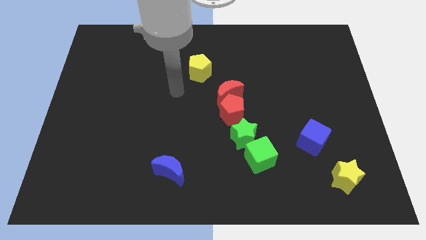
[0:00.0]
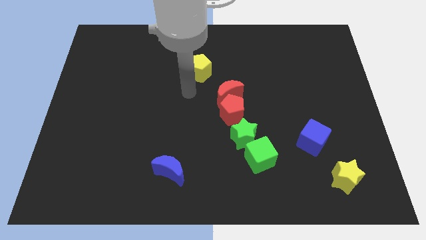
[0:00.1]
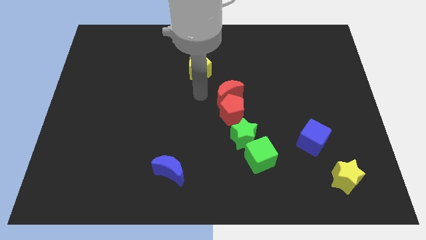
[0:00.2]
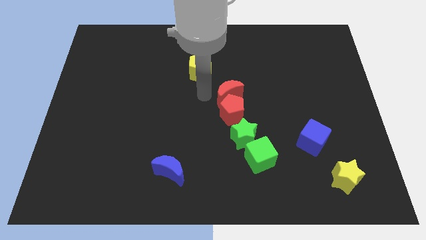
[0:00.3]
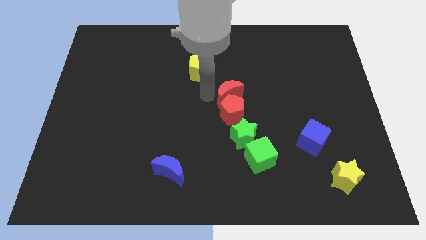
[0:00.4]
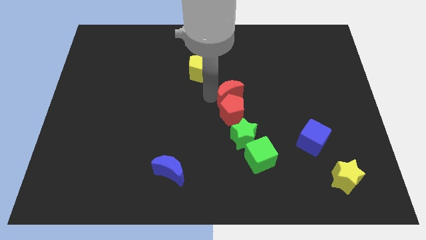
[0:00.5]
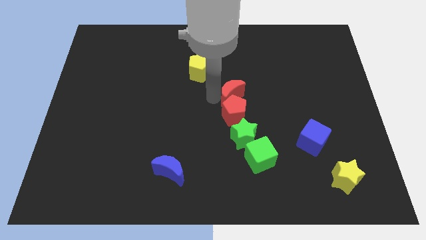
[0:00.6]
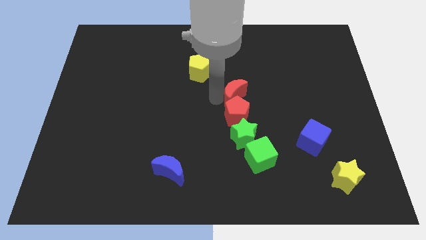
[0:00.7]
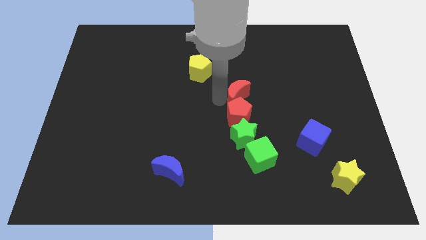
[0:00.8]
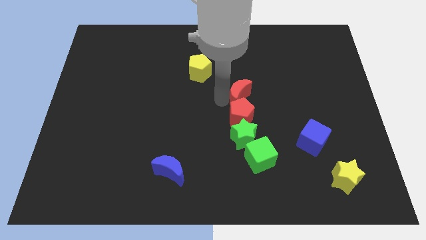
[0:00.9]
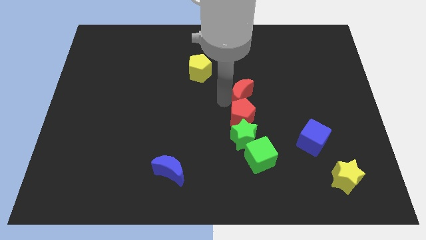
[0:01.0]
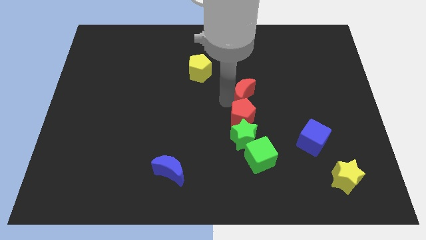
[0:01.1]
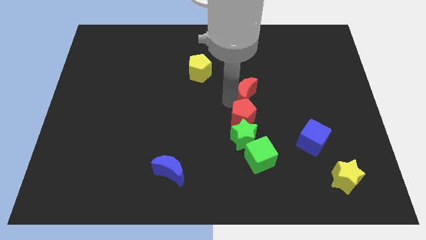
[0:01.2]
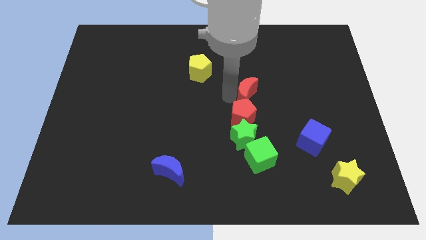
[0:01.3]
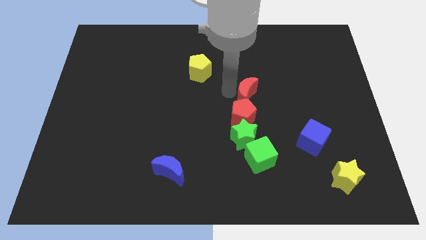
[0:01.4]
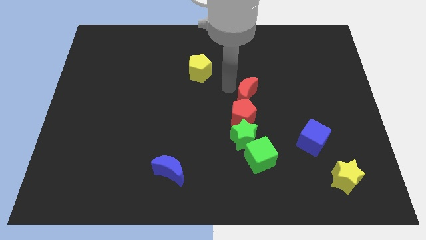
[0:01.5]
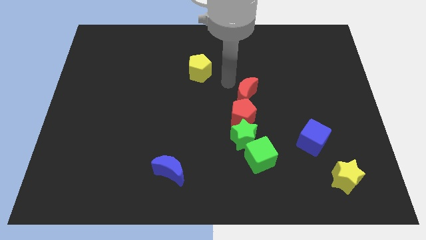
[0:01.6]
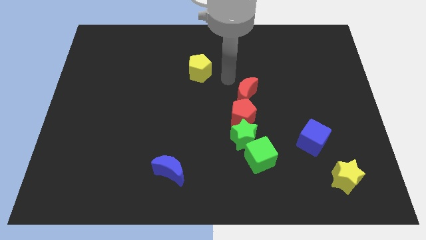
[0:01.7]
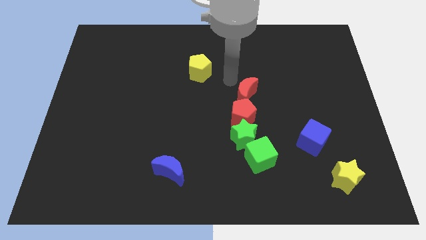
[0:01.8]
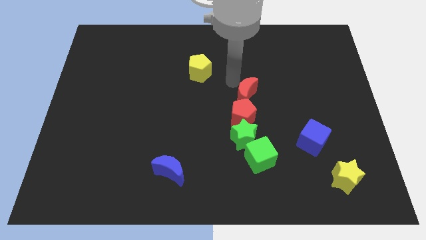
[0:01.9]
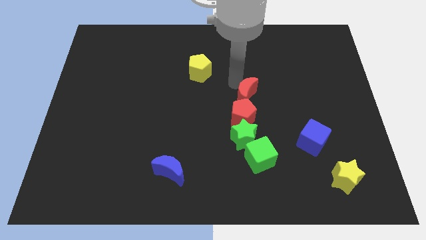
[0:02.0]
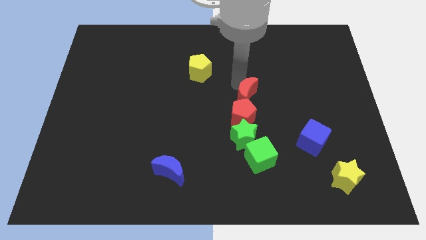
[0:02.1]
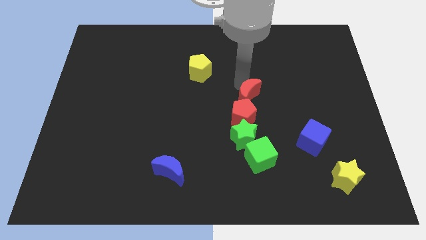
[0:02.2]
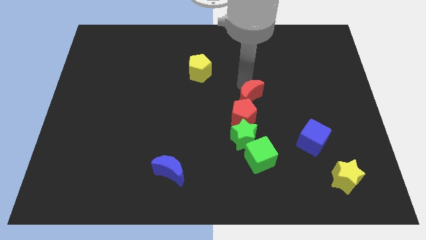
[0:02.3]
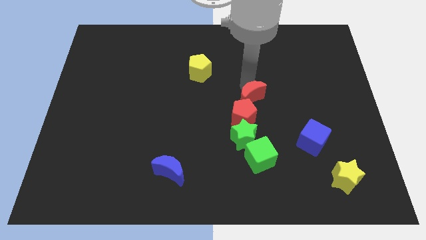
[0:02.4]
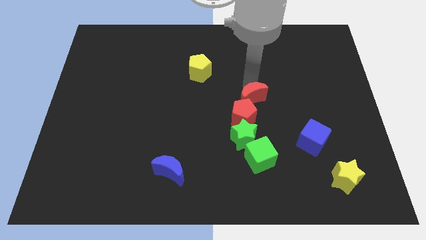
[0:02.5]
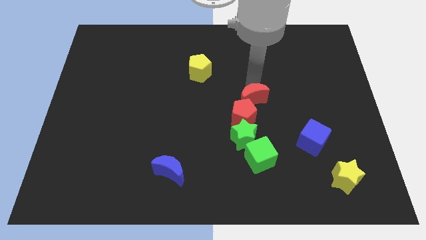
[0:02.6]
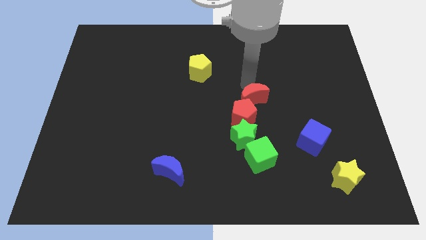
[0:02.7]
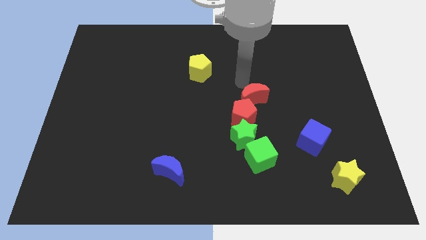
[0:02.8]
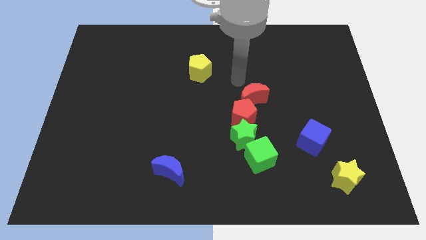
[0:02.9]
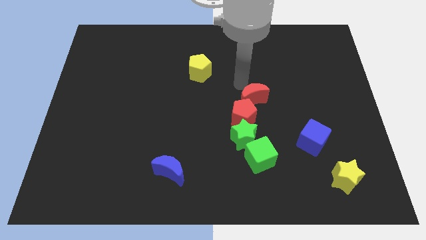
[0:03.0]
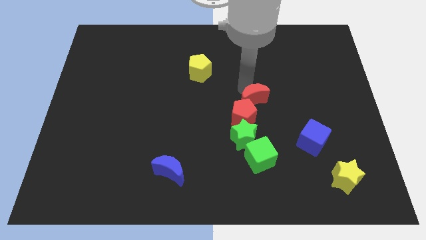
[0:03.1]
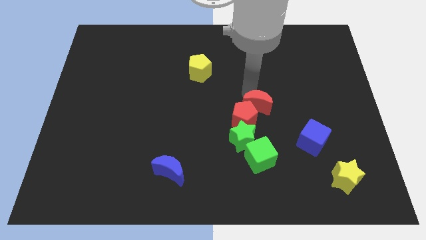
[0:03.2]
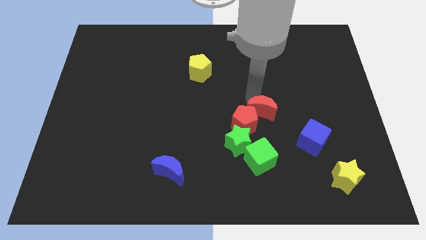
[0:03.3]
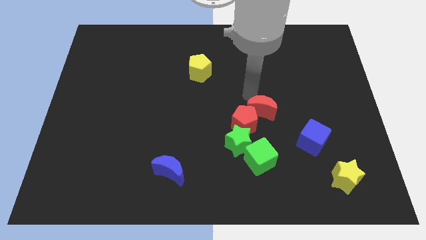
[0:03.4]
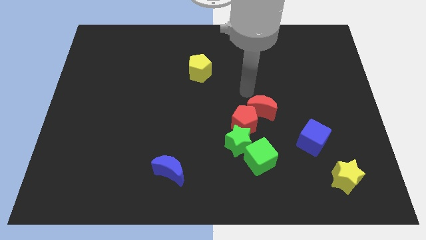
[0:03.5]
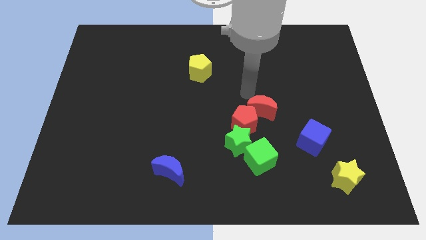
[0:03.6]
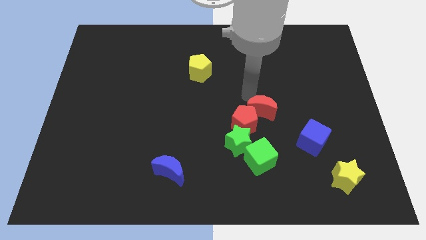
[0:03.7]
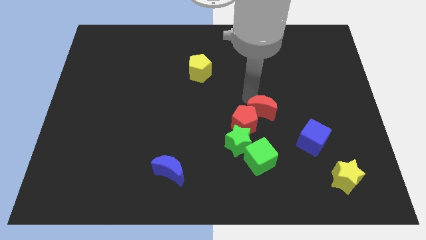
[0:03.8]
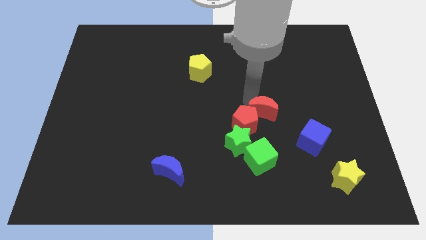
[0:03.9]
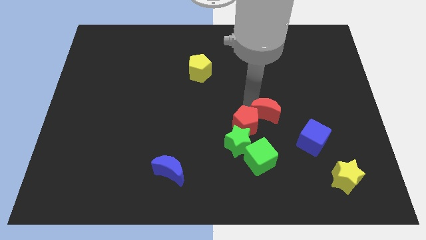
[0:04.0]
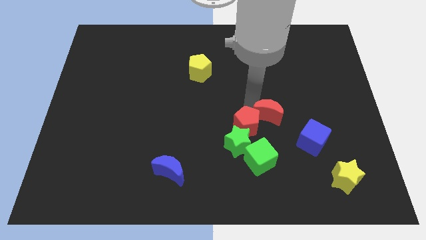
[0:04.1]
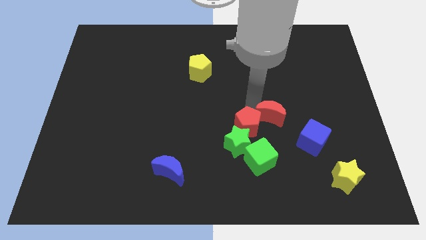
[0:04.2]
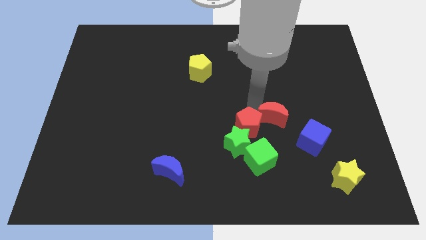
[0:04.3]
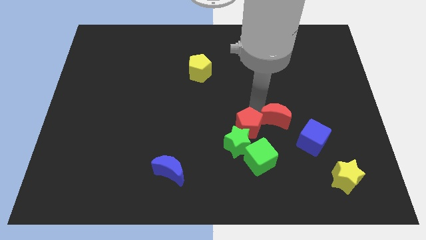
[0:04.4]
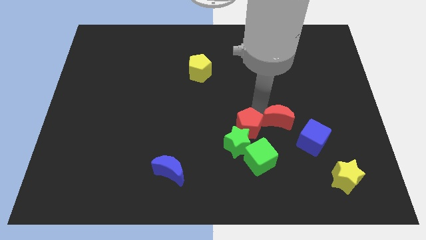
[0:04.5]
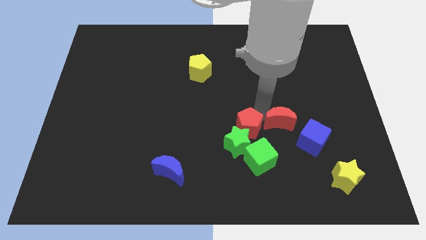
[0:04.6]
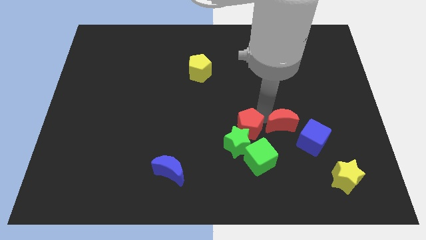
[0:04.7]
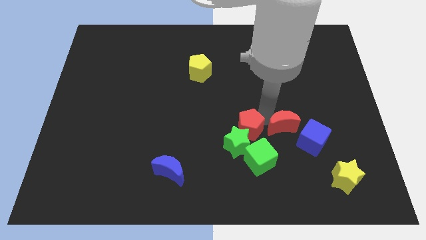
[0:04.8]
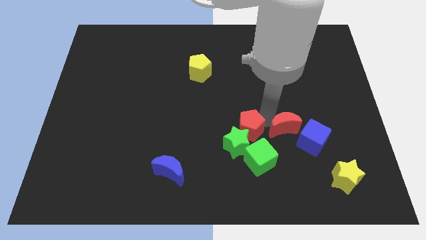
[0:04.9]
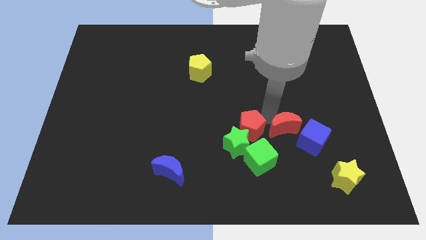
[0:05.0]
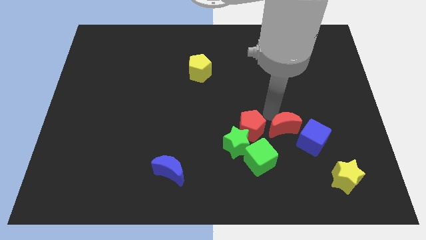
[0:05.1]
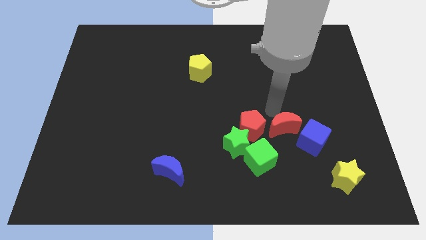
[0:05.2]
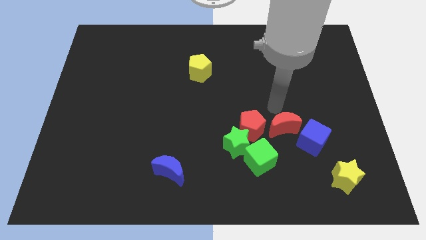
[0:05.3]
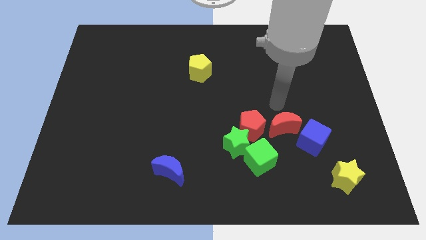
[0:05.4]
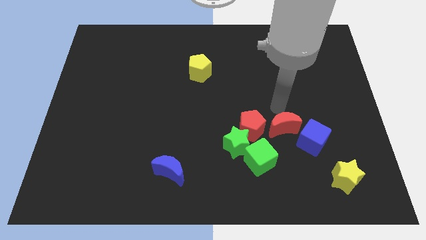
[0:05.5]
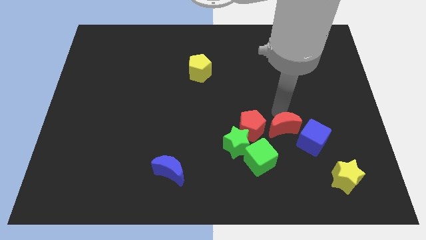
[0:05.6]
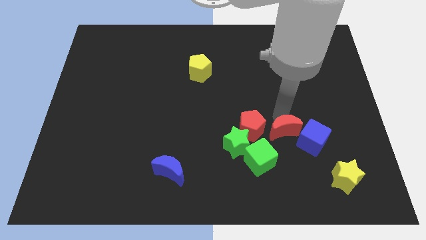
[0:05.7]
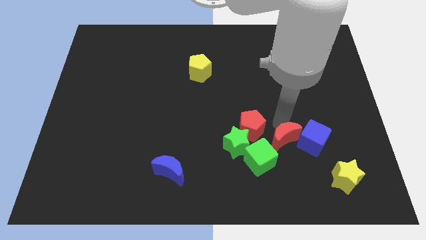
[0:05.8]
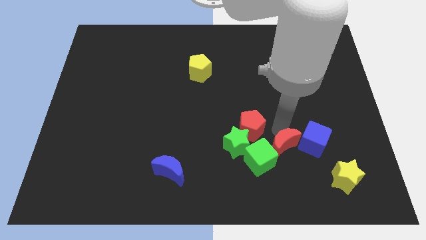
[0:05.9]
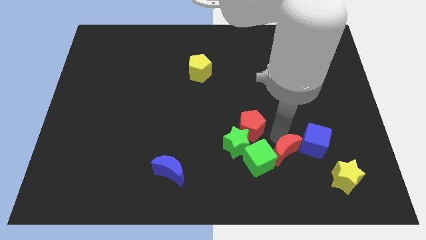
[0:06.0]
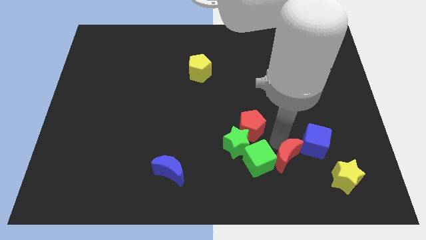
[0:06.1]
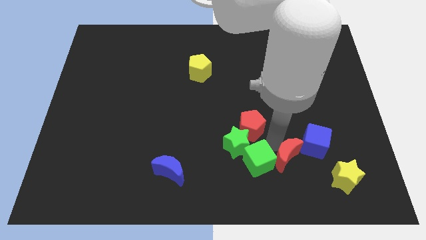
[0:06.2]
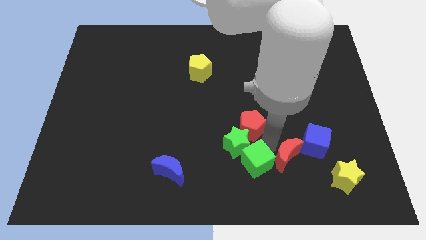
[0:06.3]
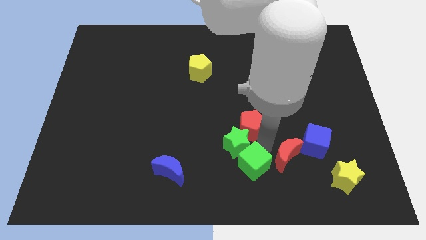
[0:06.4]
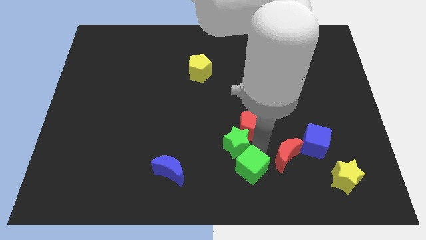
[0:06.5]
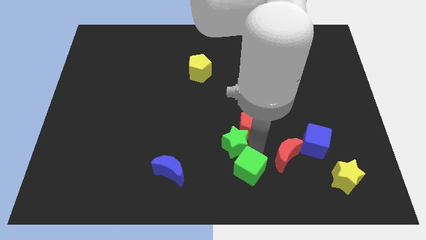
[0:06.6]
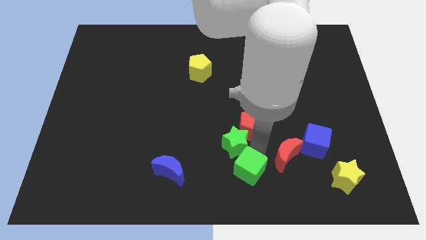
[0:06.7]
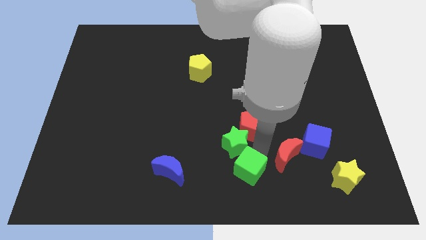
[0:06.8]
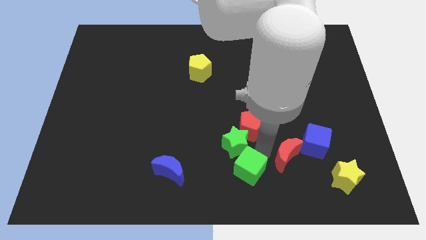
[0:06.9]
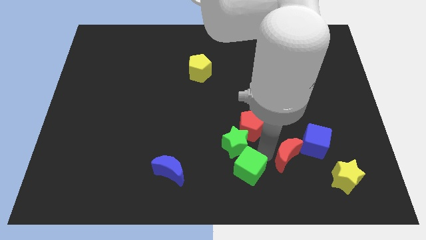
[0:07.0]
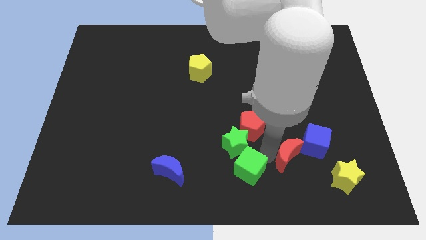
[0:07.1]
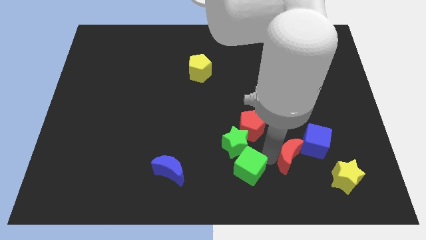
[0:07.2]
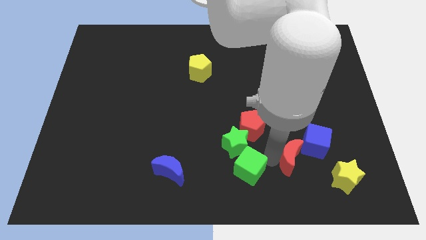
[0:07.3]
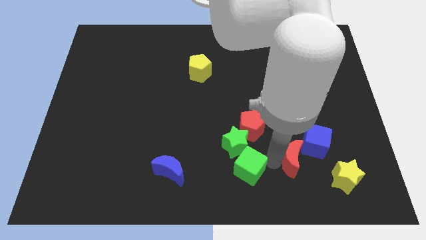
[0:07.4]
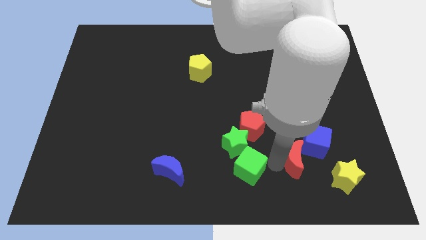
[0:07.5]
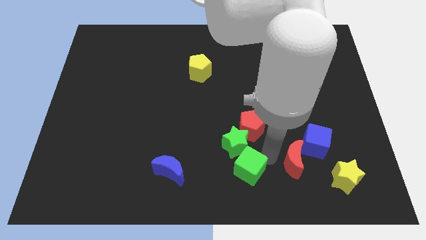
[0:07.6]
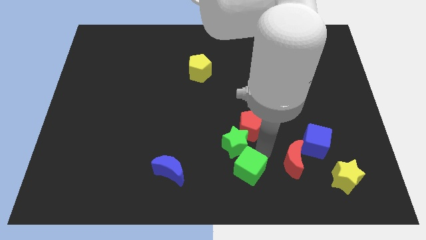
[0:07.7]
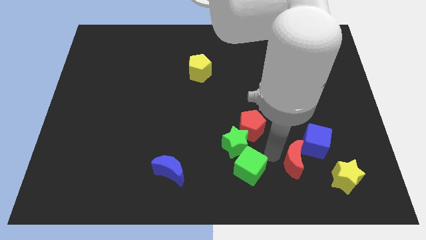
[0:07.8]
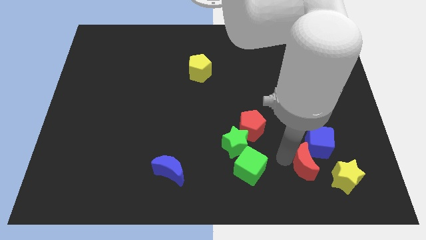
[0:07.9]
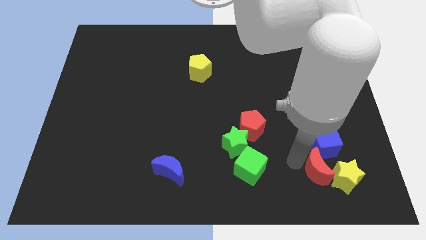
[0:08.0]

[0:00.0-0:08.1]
slide the red moon towards the yellow star
